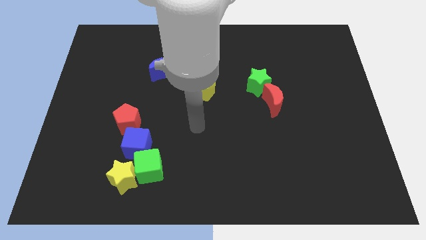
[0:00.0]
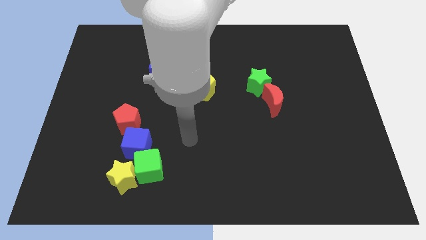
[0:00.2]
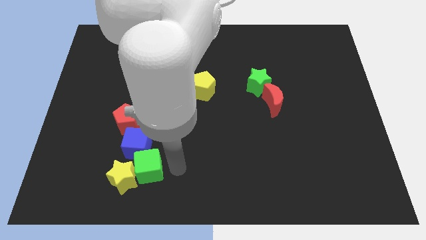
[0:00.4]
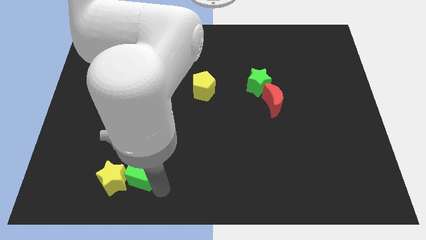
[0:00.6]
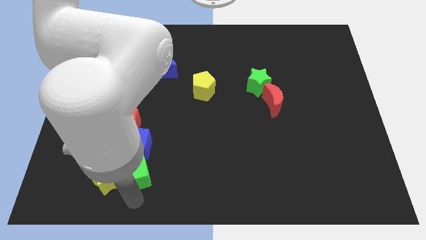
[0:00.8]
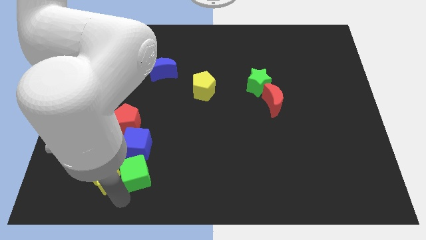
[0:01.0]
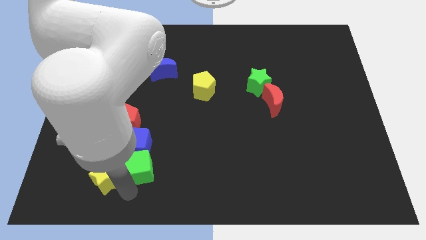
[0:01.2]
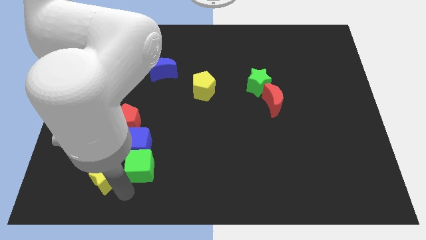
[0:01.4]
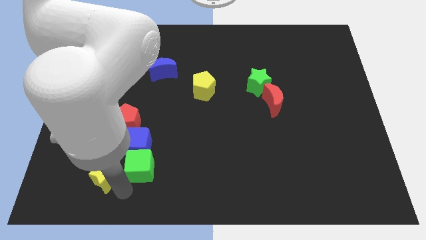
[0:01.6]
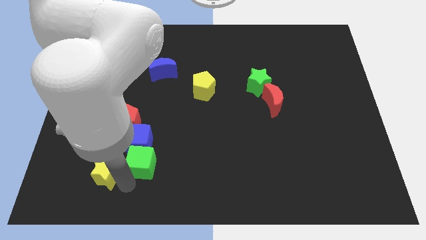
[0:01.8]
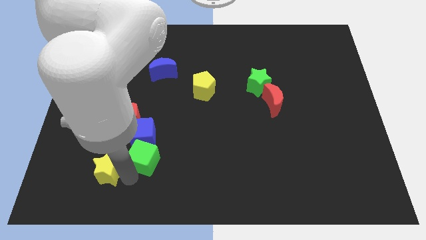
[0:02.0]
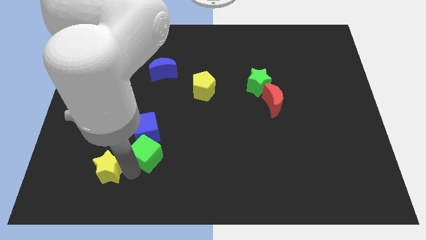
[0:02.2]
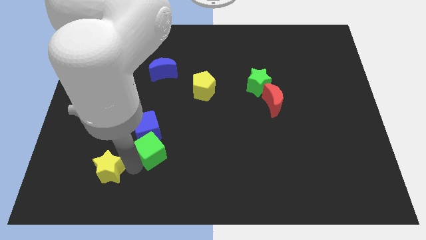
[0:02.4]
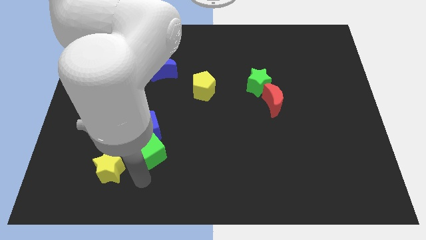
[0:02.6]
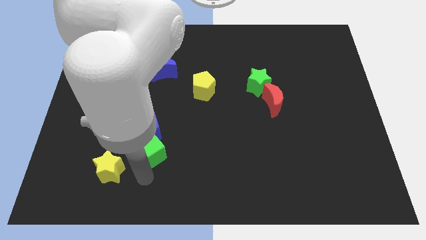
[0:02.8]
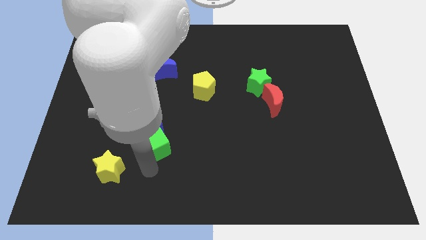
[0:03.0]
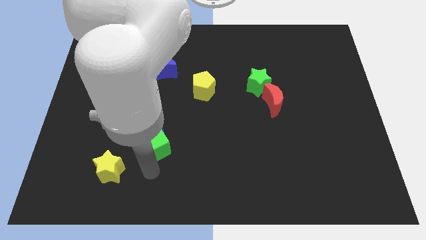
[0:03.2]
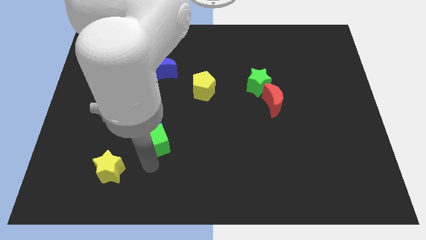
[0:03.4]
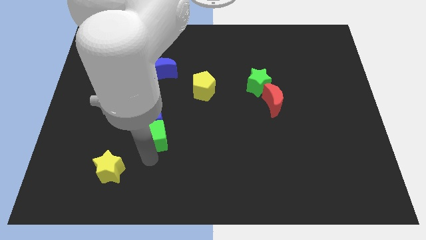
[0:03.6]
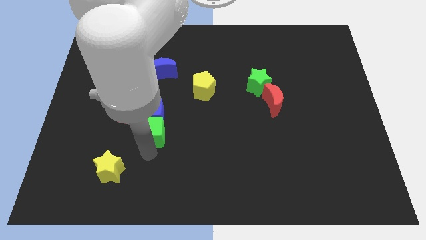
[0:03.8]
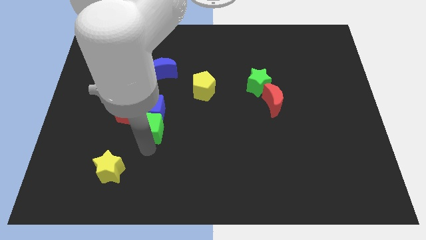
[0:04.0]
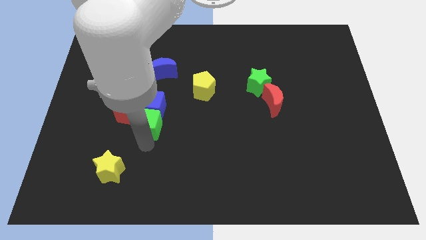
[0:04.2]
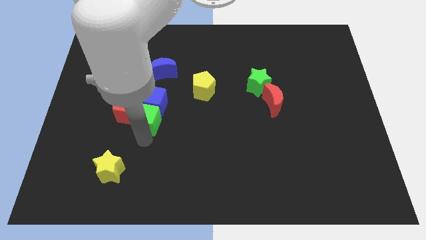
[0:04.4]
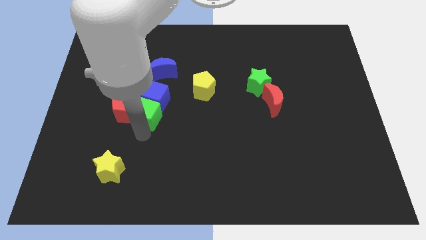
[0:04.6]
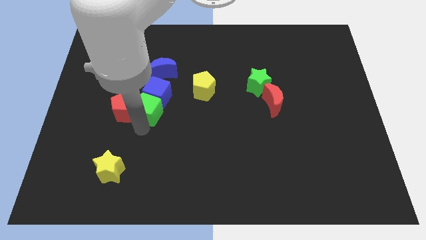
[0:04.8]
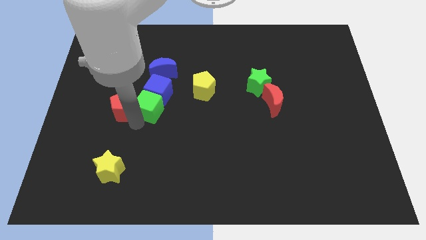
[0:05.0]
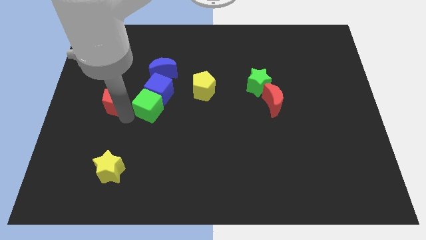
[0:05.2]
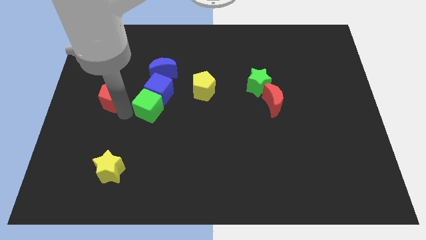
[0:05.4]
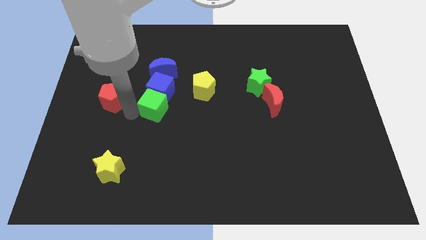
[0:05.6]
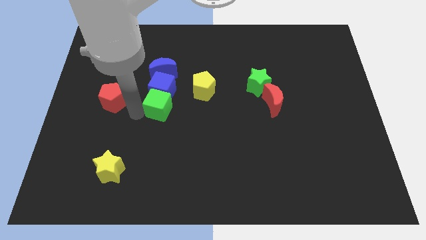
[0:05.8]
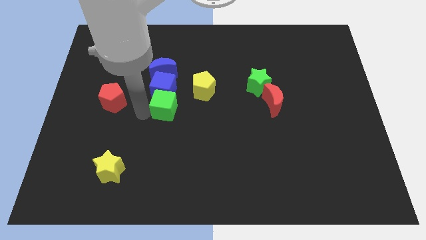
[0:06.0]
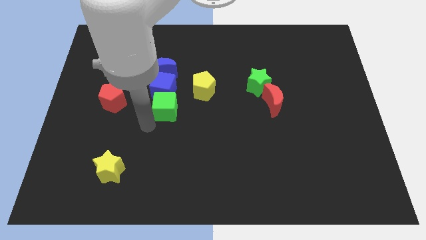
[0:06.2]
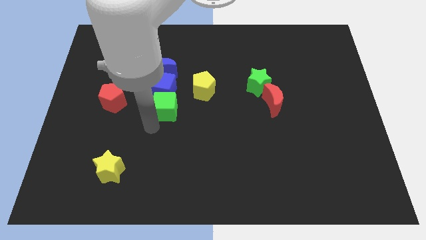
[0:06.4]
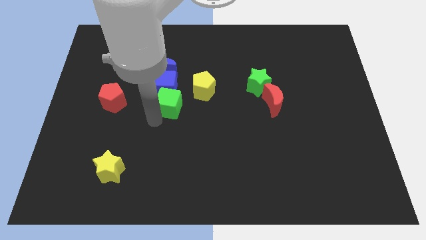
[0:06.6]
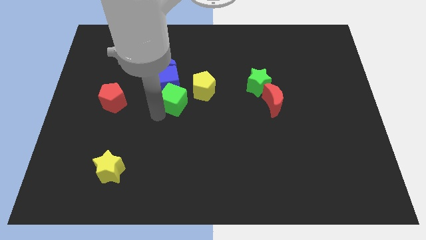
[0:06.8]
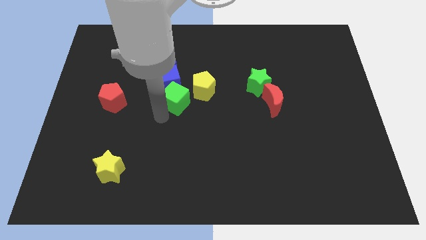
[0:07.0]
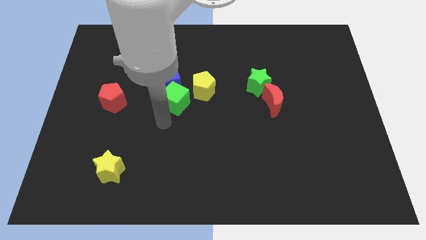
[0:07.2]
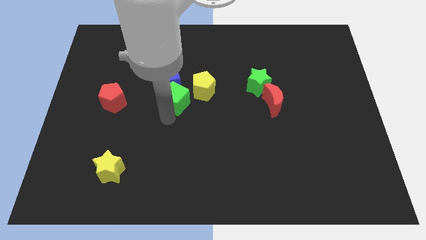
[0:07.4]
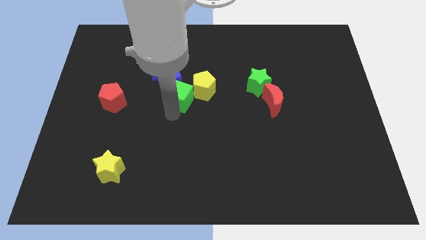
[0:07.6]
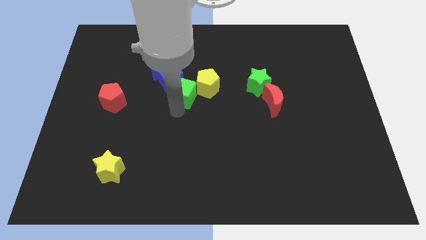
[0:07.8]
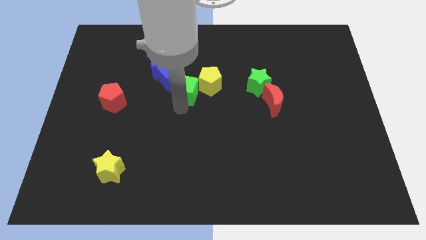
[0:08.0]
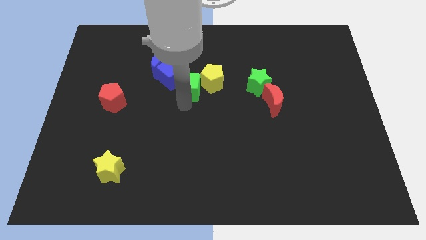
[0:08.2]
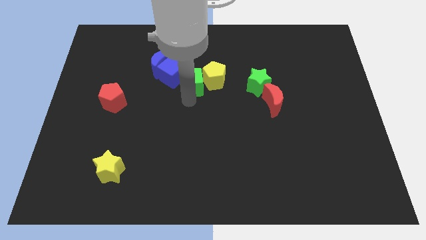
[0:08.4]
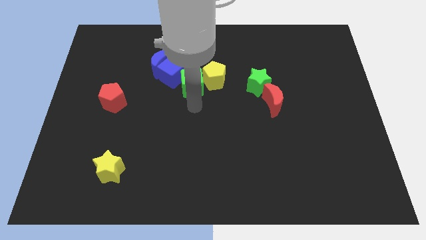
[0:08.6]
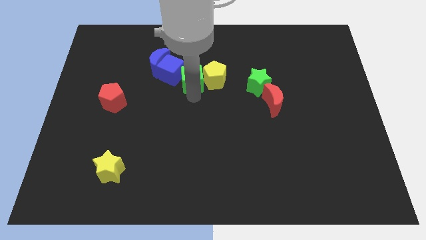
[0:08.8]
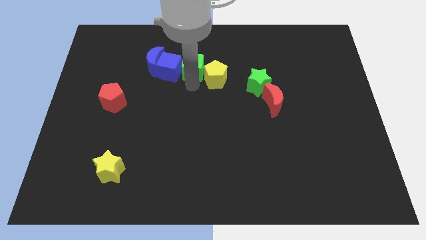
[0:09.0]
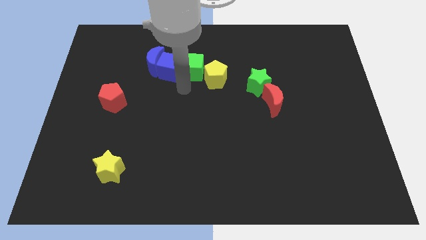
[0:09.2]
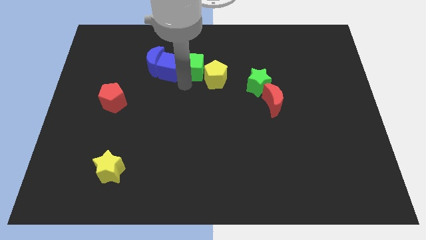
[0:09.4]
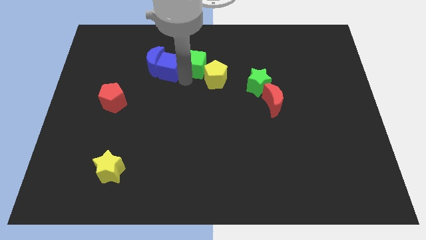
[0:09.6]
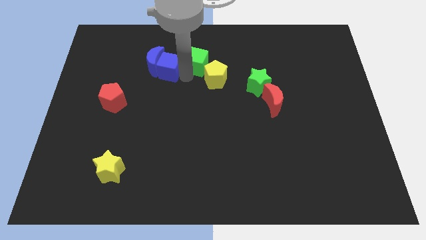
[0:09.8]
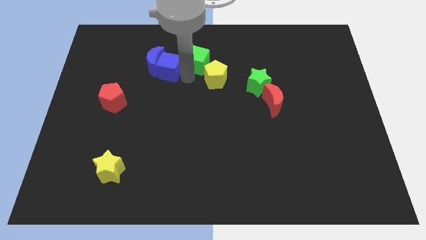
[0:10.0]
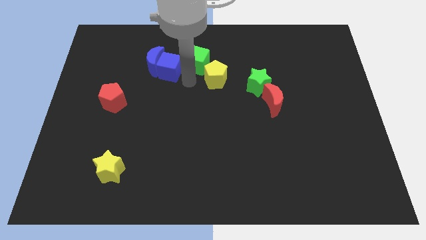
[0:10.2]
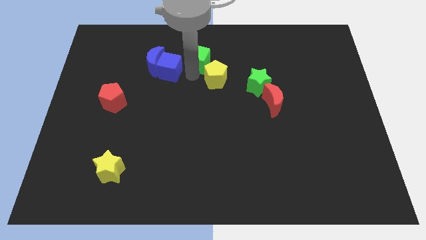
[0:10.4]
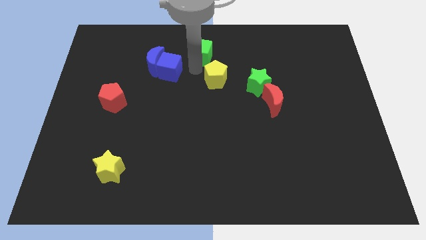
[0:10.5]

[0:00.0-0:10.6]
move the green cube to the top

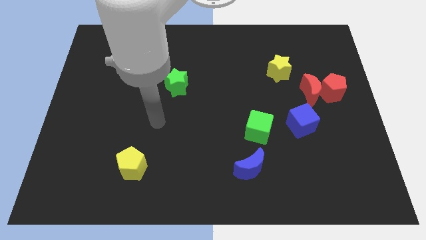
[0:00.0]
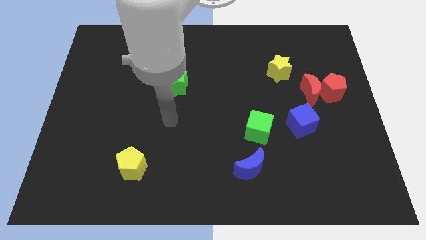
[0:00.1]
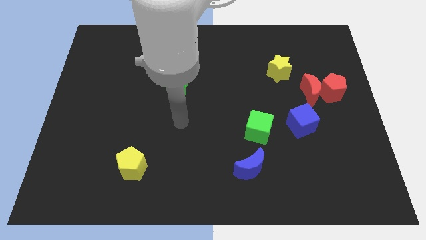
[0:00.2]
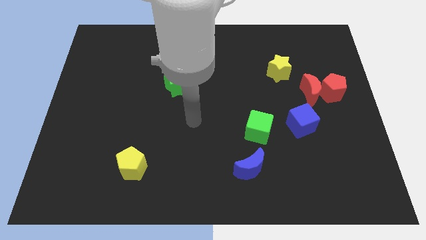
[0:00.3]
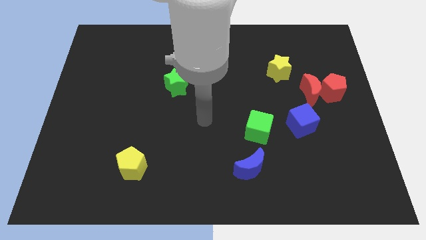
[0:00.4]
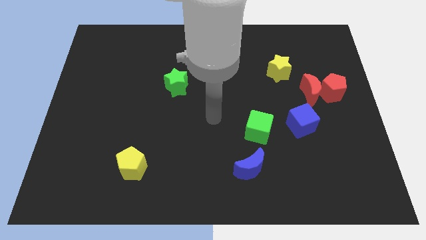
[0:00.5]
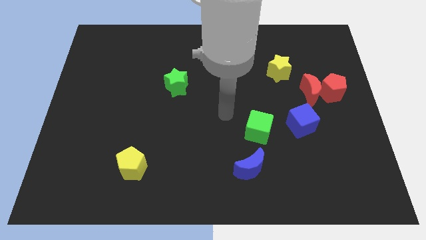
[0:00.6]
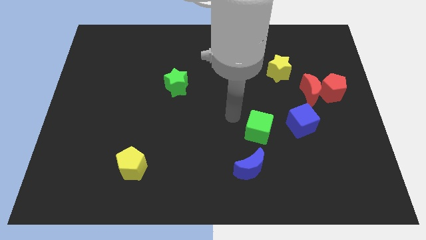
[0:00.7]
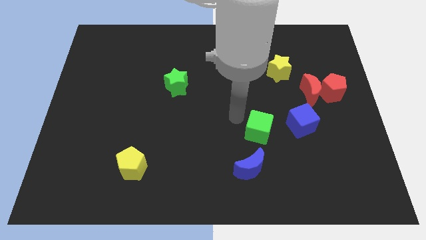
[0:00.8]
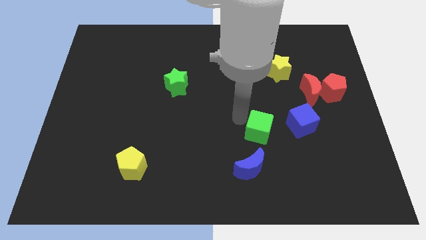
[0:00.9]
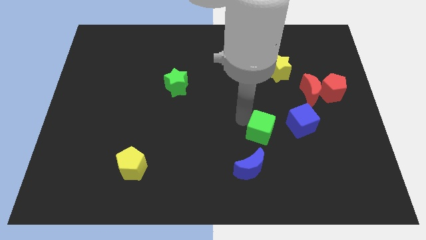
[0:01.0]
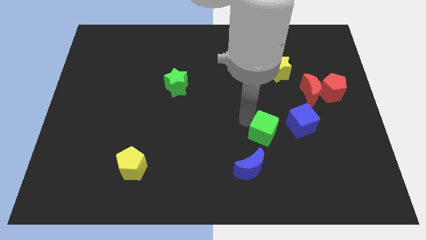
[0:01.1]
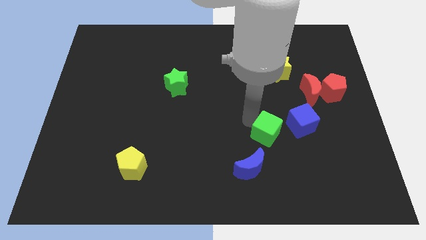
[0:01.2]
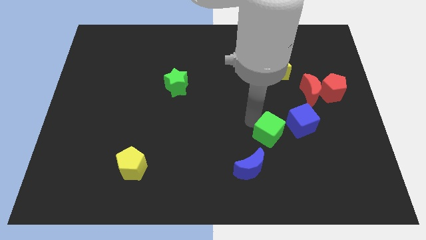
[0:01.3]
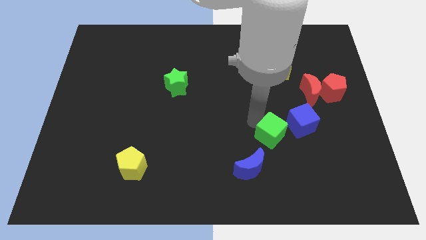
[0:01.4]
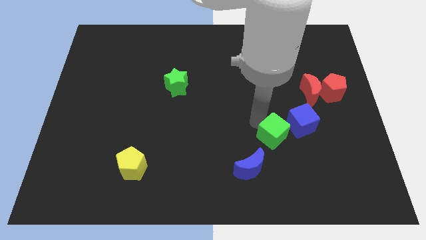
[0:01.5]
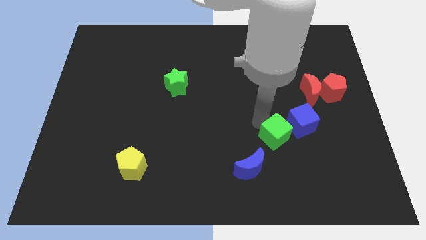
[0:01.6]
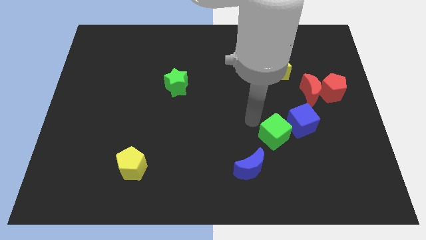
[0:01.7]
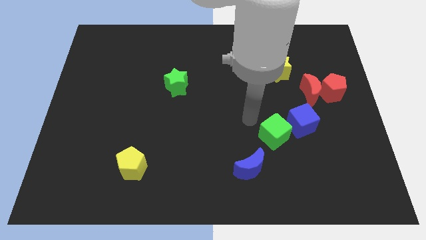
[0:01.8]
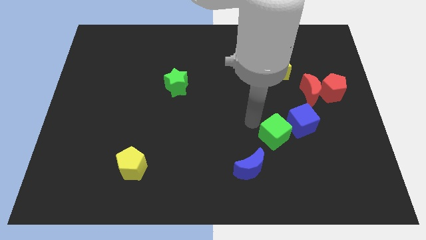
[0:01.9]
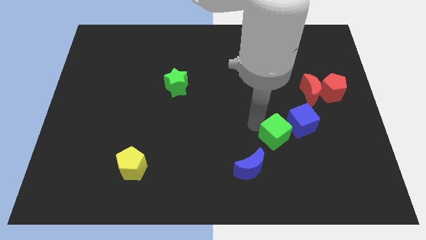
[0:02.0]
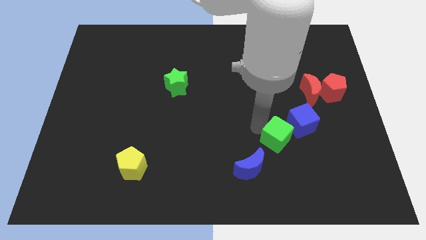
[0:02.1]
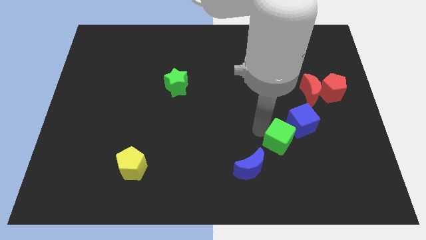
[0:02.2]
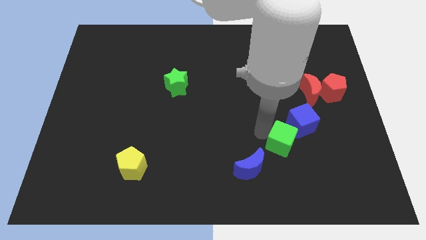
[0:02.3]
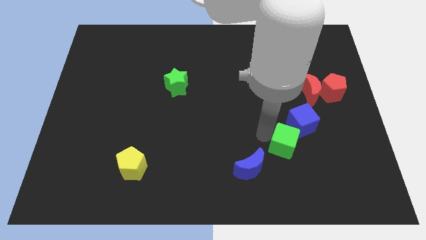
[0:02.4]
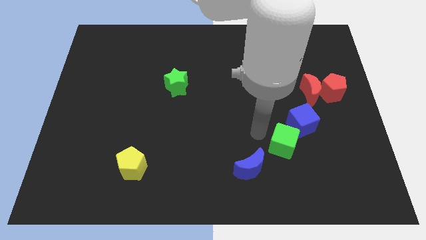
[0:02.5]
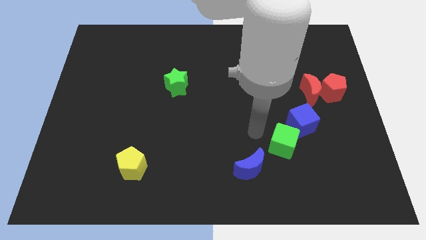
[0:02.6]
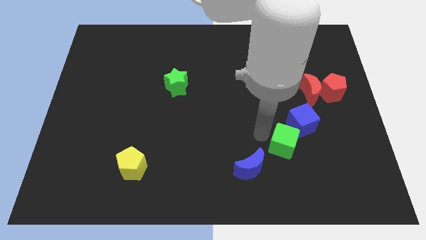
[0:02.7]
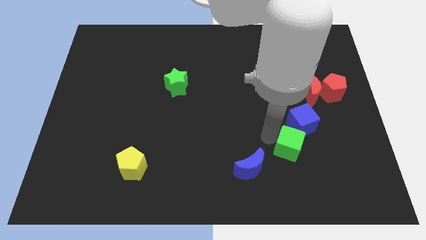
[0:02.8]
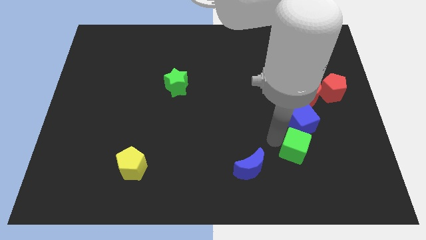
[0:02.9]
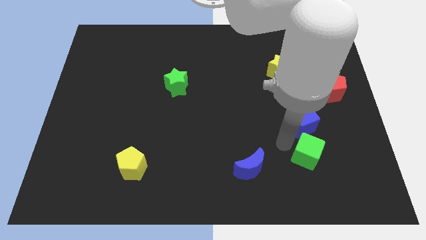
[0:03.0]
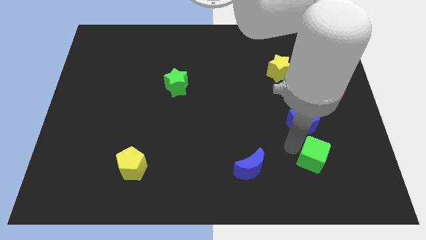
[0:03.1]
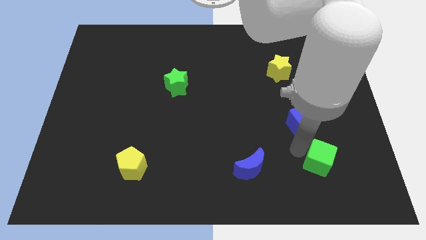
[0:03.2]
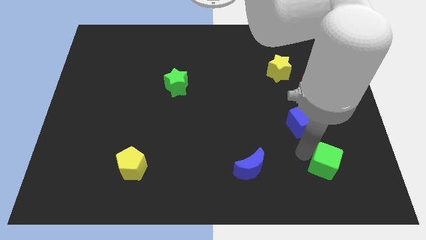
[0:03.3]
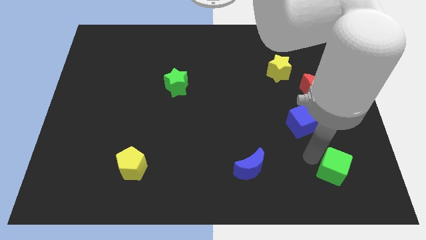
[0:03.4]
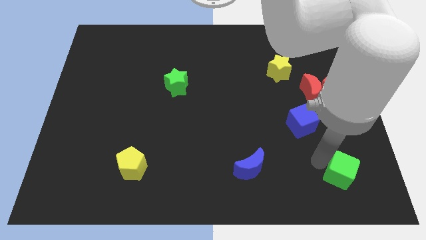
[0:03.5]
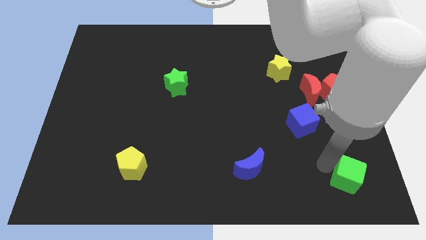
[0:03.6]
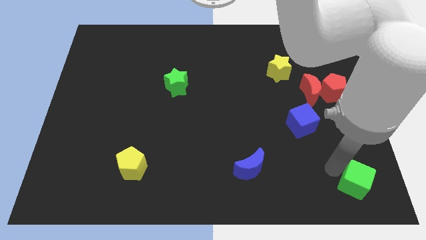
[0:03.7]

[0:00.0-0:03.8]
push the green cube to the lower right corner
